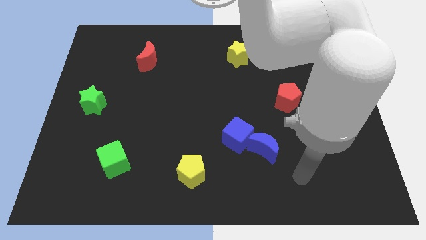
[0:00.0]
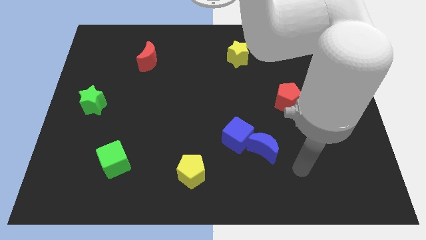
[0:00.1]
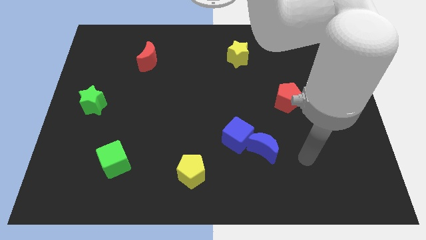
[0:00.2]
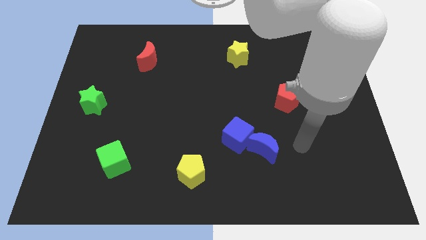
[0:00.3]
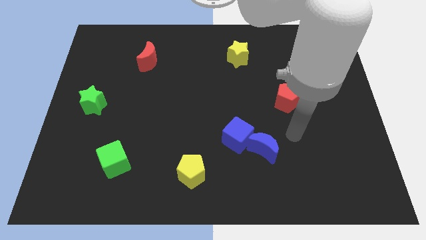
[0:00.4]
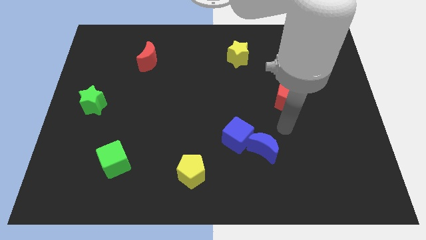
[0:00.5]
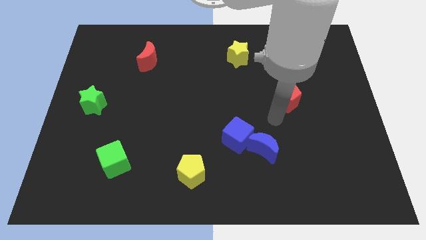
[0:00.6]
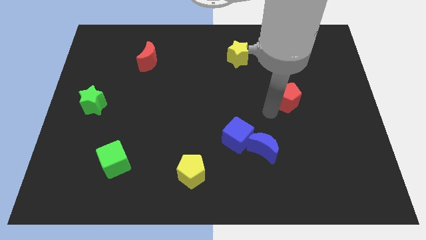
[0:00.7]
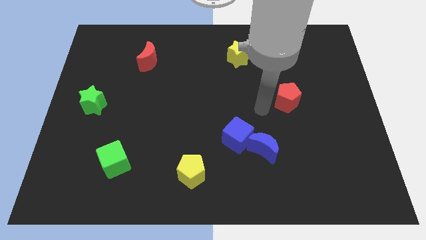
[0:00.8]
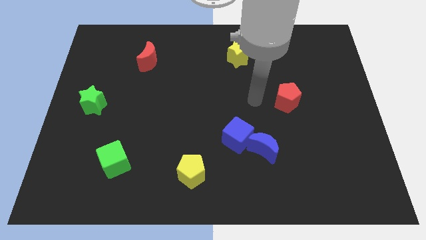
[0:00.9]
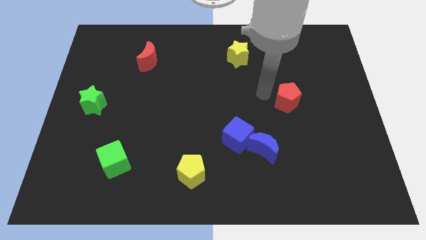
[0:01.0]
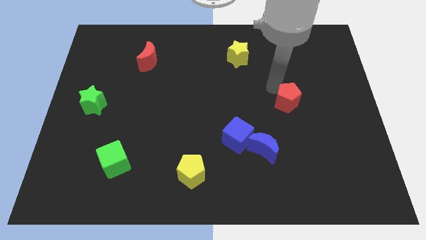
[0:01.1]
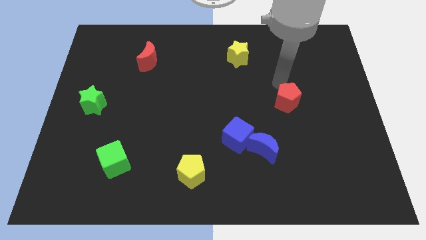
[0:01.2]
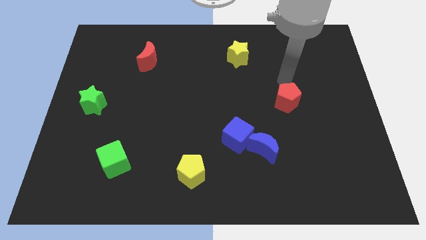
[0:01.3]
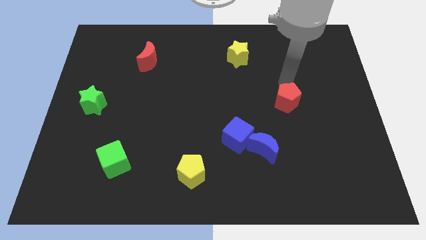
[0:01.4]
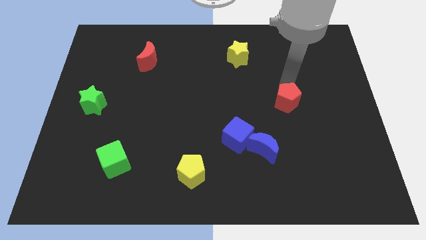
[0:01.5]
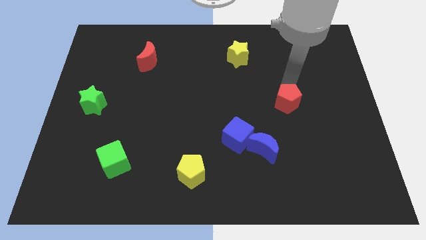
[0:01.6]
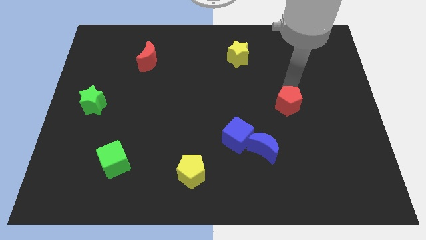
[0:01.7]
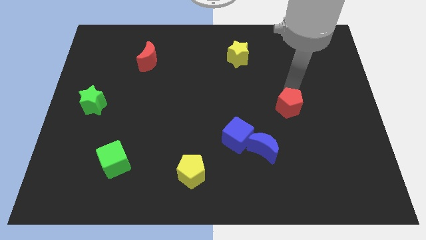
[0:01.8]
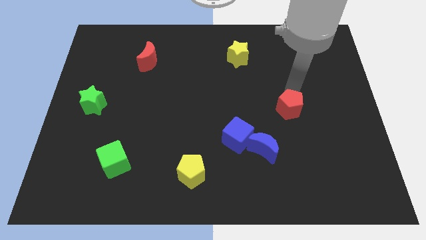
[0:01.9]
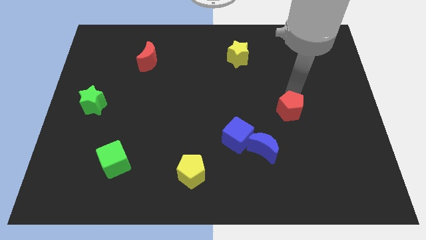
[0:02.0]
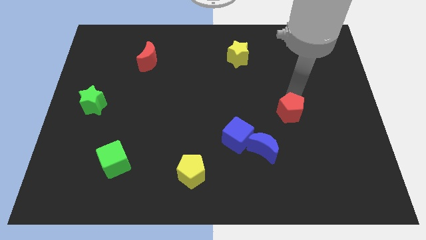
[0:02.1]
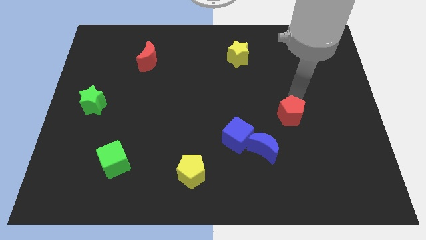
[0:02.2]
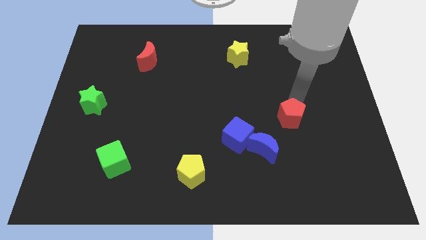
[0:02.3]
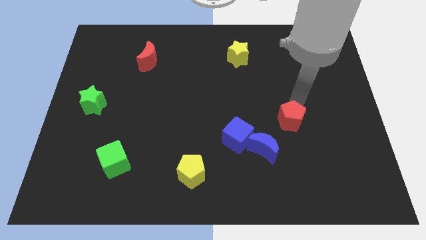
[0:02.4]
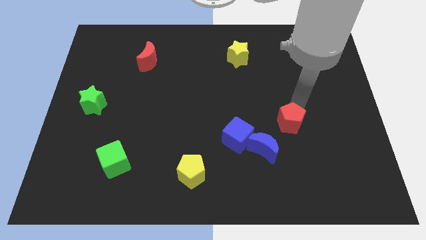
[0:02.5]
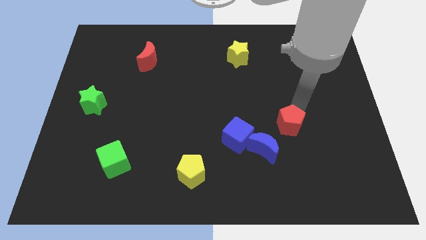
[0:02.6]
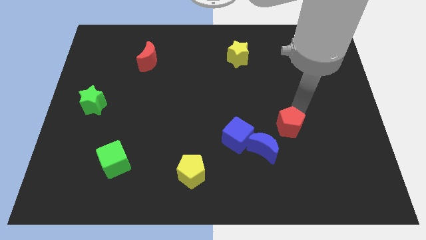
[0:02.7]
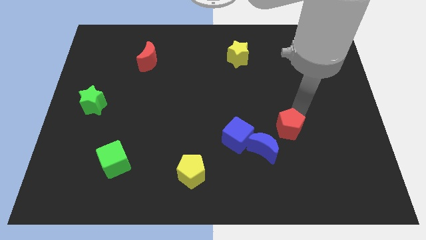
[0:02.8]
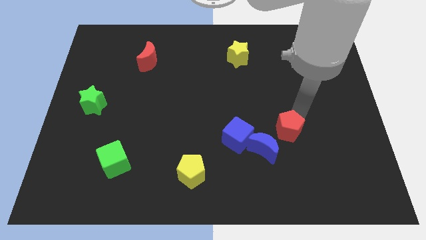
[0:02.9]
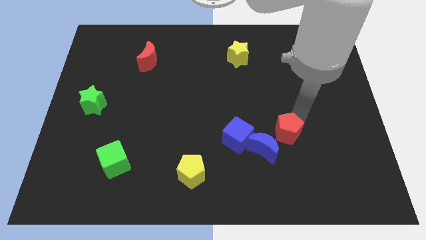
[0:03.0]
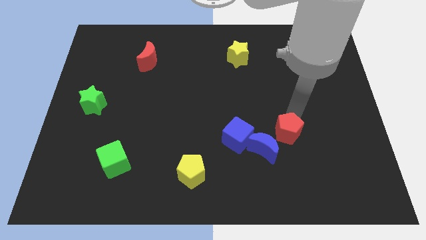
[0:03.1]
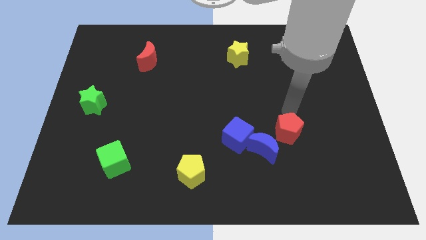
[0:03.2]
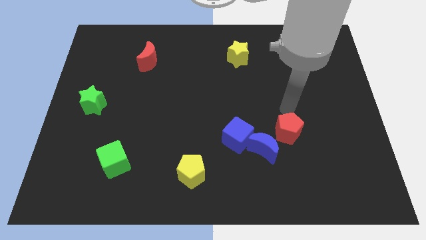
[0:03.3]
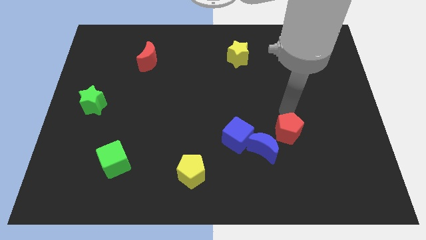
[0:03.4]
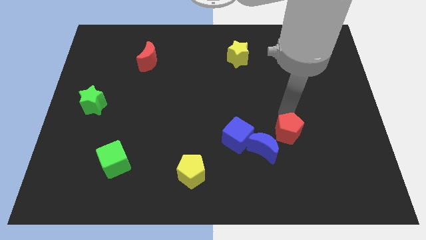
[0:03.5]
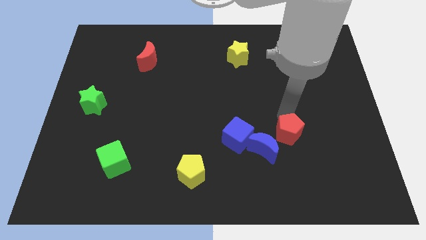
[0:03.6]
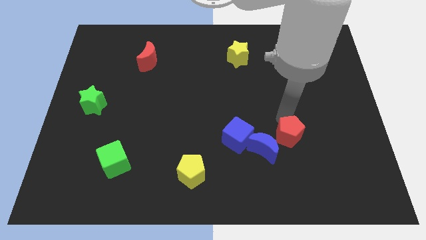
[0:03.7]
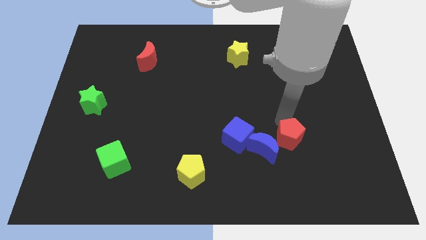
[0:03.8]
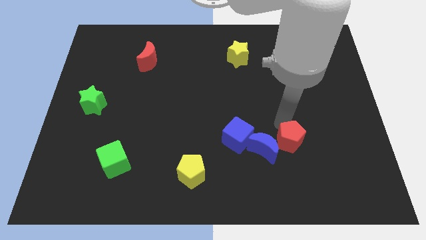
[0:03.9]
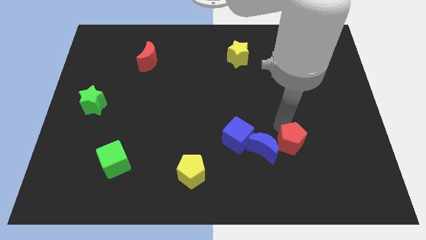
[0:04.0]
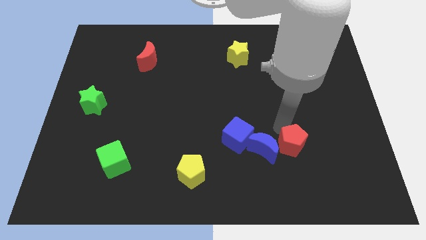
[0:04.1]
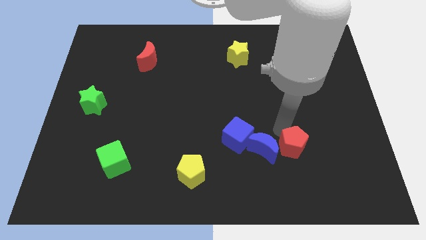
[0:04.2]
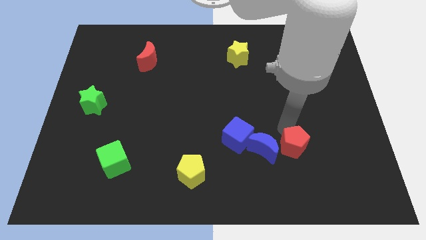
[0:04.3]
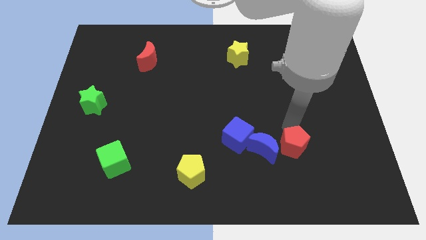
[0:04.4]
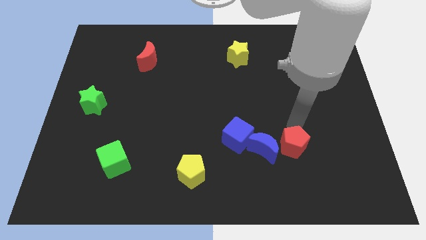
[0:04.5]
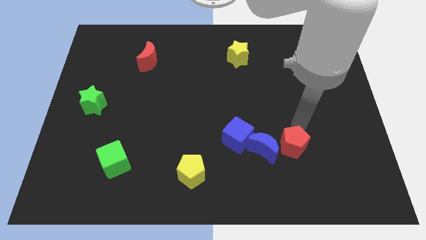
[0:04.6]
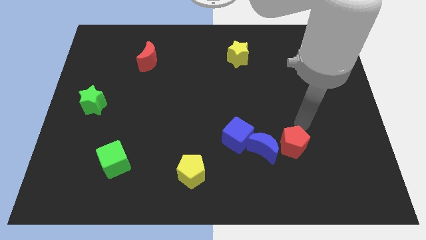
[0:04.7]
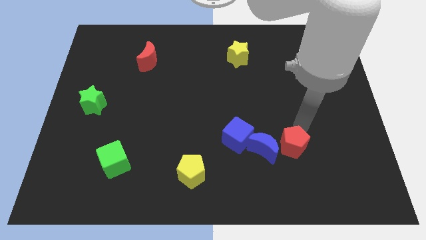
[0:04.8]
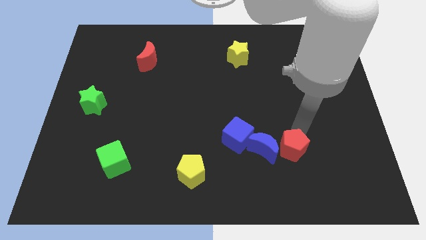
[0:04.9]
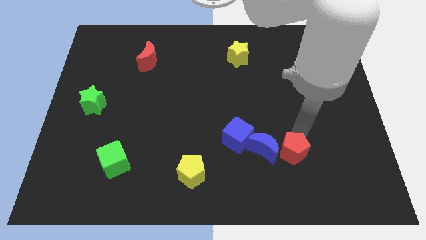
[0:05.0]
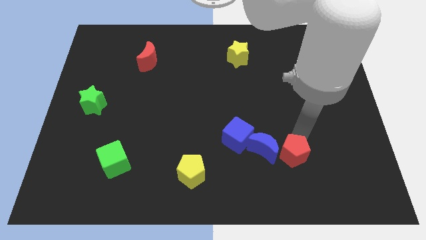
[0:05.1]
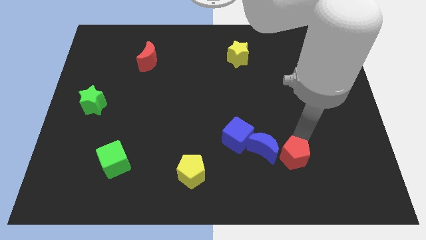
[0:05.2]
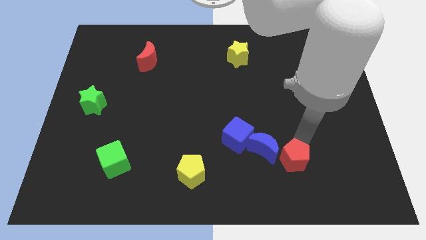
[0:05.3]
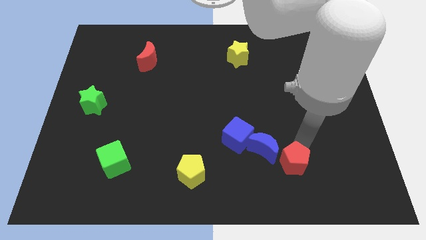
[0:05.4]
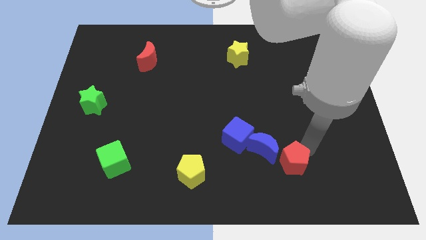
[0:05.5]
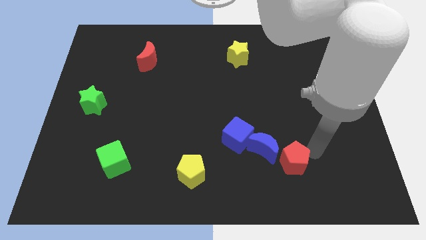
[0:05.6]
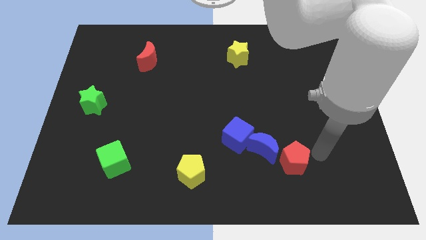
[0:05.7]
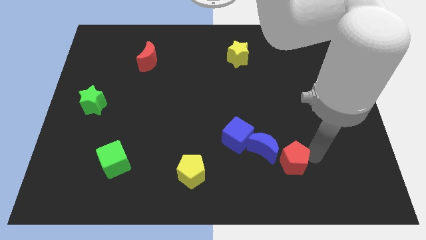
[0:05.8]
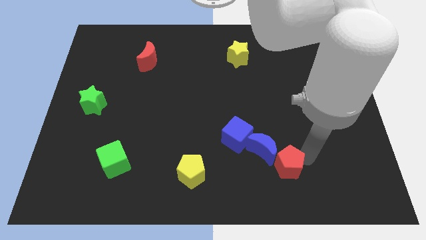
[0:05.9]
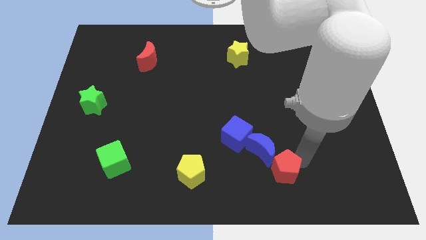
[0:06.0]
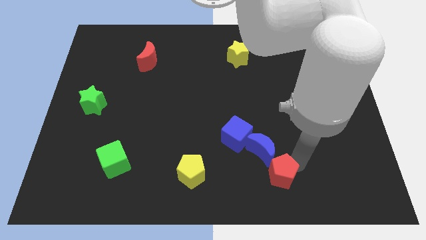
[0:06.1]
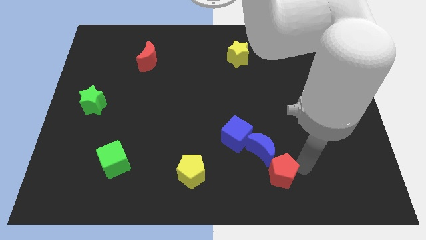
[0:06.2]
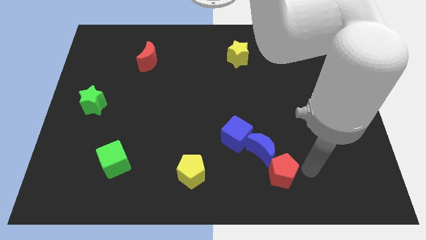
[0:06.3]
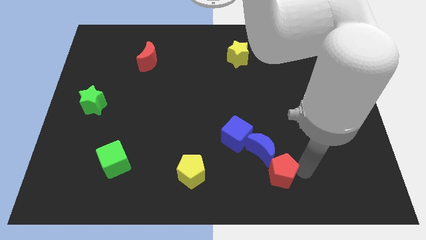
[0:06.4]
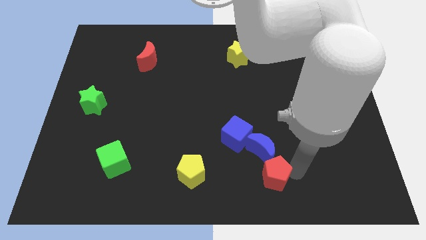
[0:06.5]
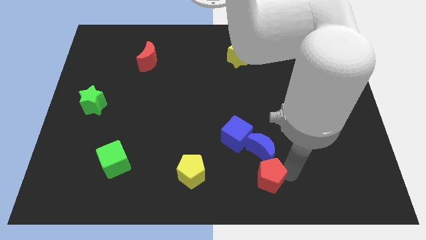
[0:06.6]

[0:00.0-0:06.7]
slide the red pentagon to the bottom side
